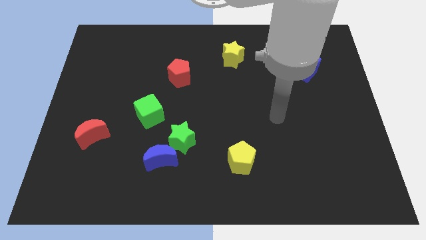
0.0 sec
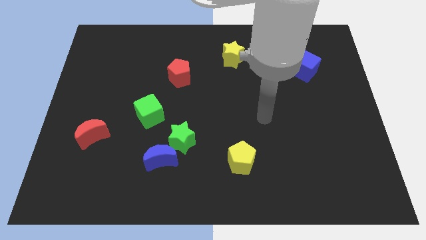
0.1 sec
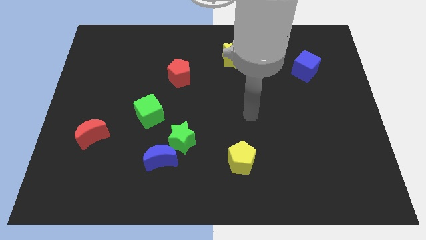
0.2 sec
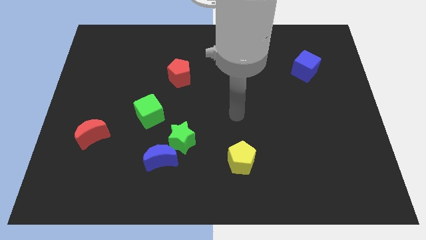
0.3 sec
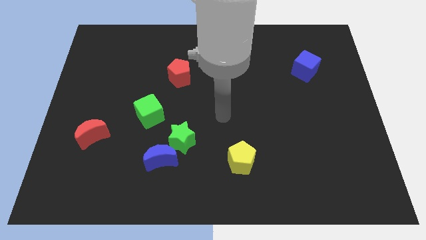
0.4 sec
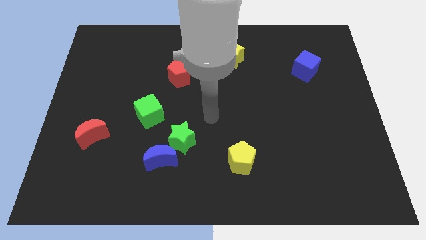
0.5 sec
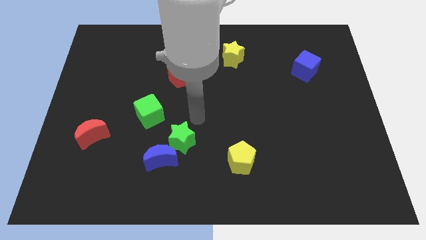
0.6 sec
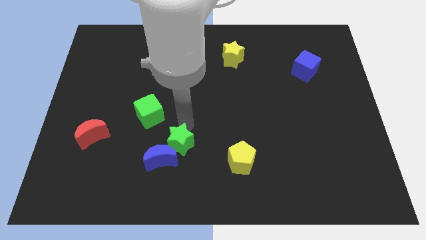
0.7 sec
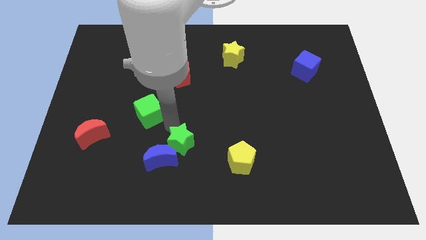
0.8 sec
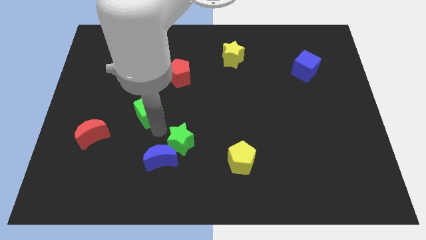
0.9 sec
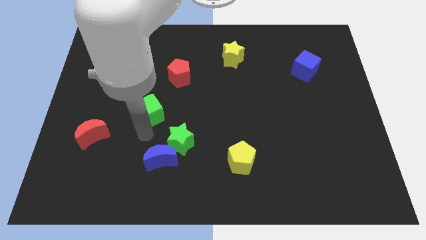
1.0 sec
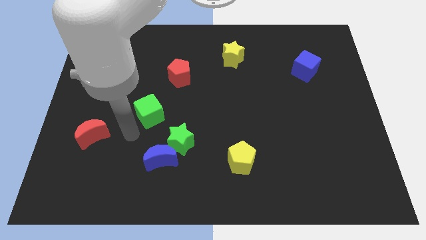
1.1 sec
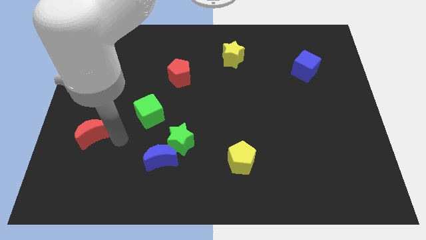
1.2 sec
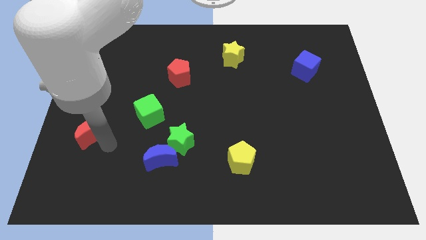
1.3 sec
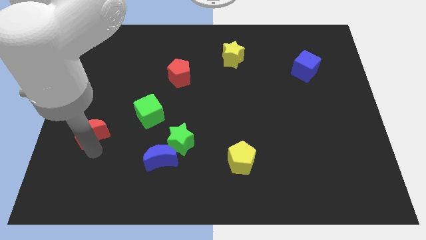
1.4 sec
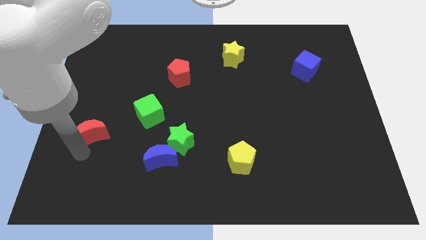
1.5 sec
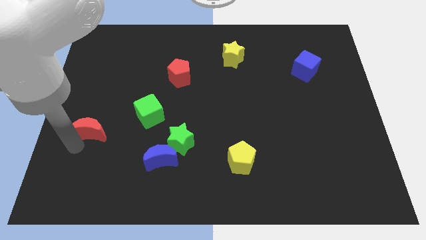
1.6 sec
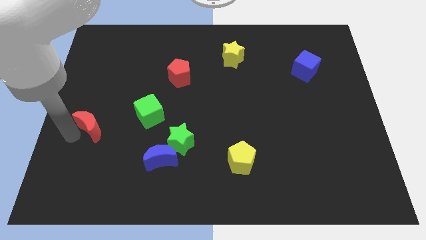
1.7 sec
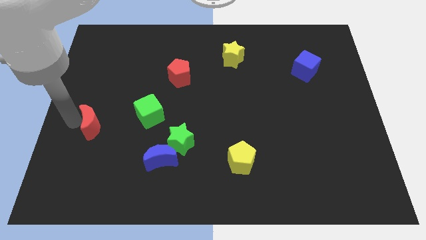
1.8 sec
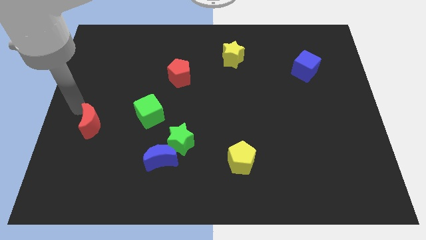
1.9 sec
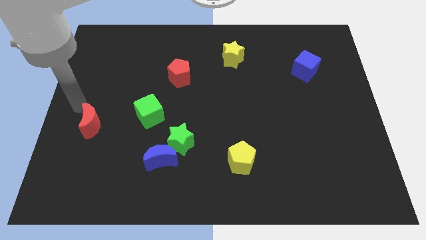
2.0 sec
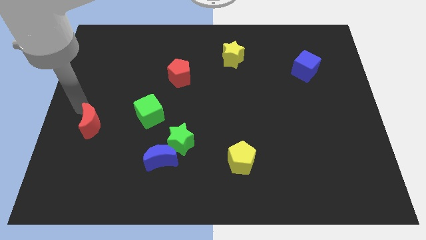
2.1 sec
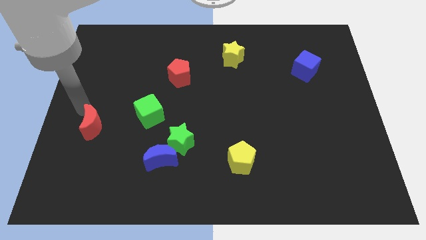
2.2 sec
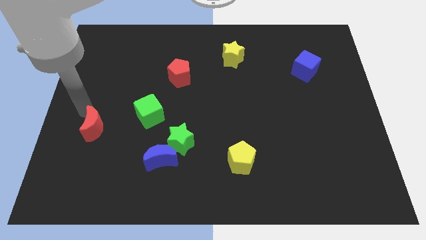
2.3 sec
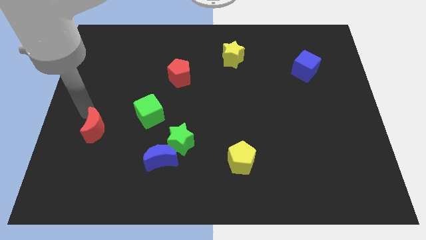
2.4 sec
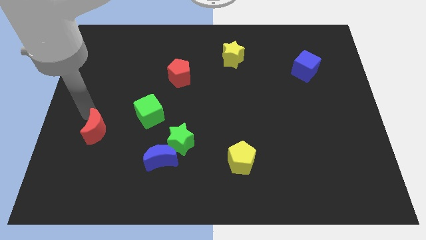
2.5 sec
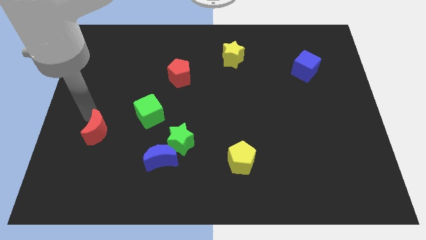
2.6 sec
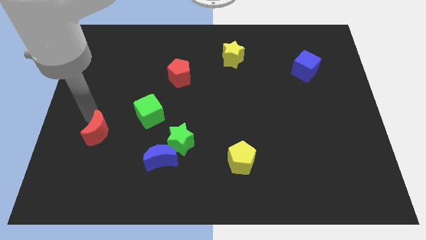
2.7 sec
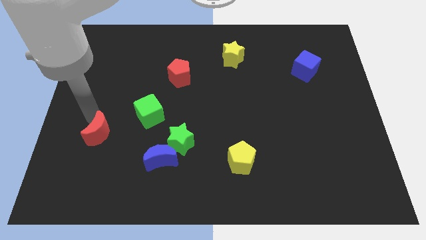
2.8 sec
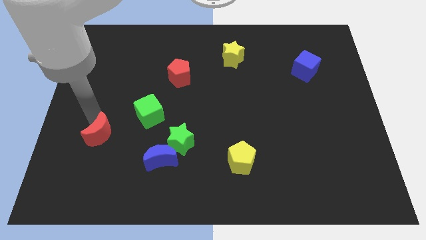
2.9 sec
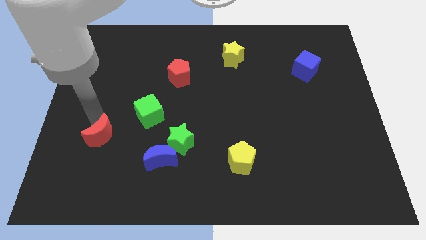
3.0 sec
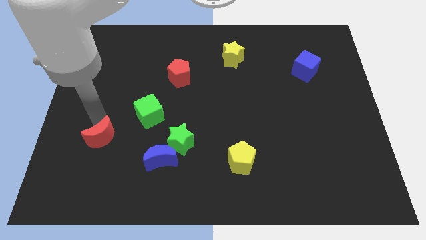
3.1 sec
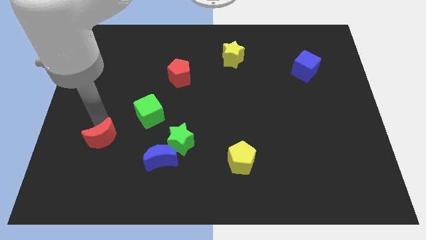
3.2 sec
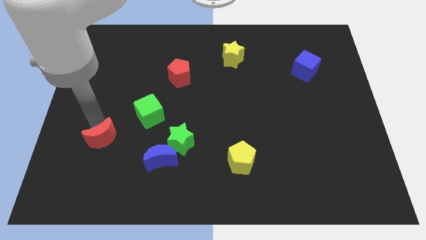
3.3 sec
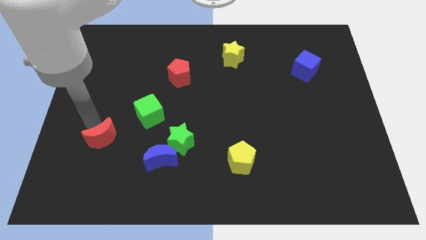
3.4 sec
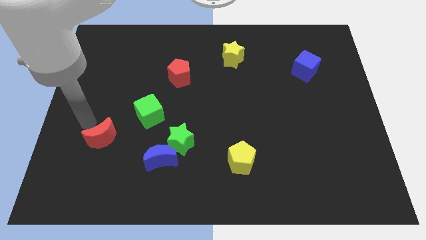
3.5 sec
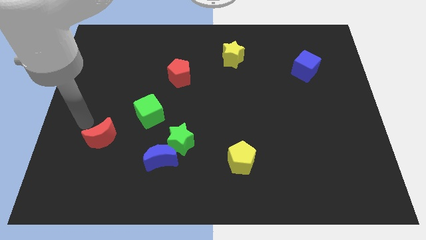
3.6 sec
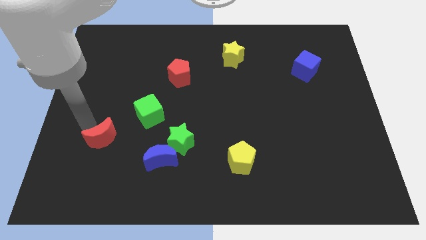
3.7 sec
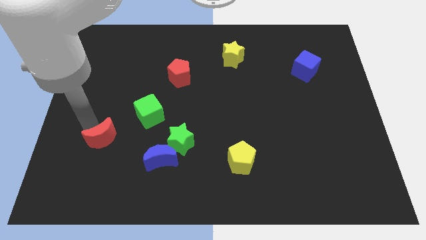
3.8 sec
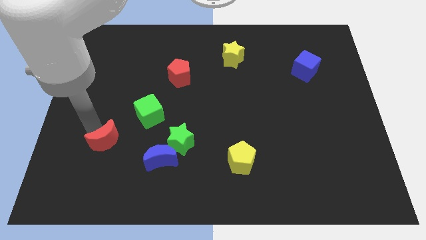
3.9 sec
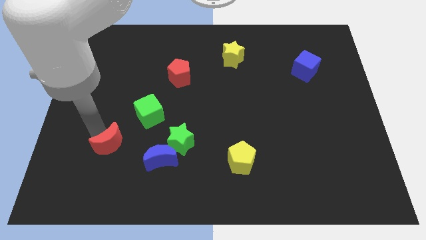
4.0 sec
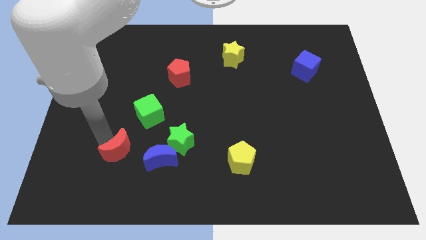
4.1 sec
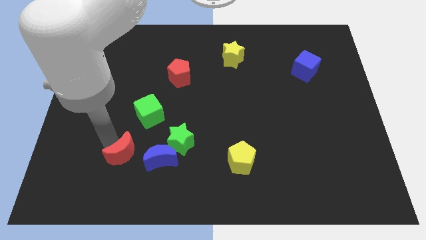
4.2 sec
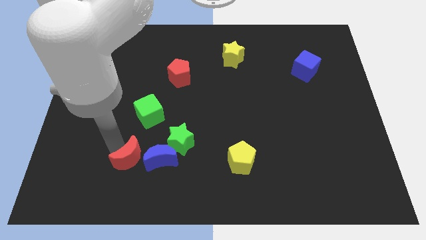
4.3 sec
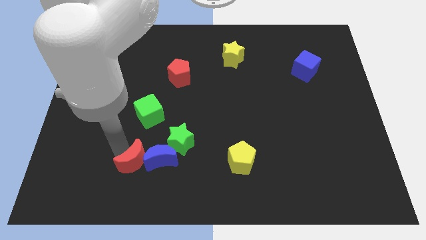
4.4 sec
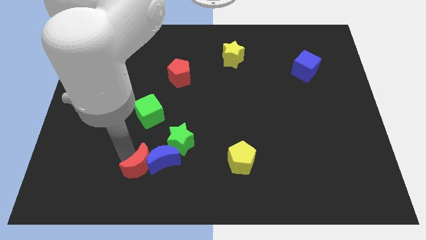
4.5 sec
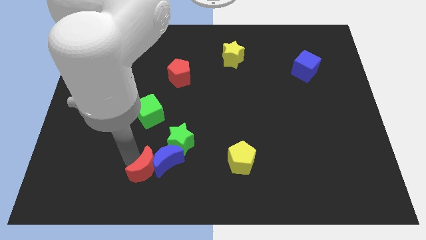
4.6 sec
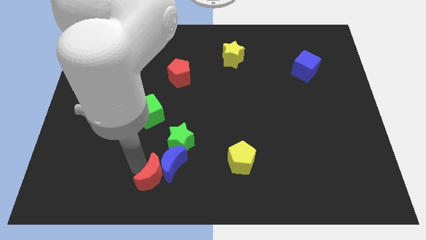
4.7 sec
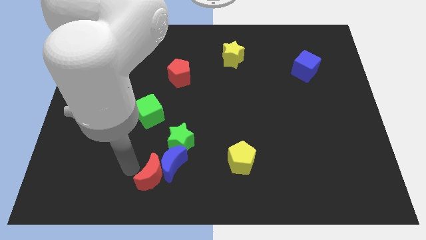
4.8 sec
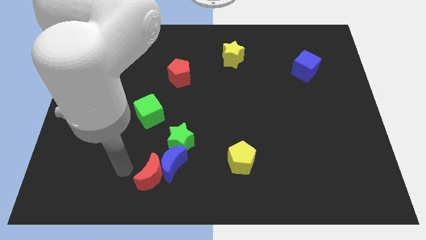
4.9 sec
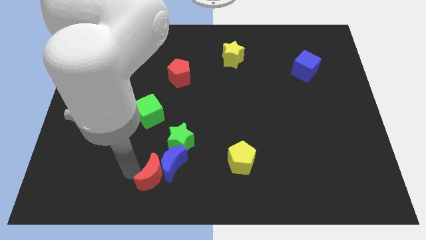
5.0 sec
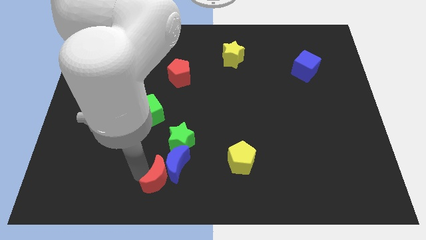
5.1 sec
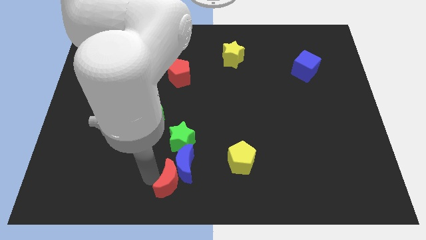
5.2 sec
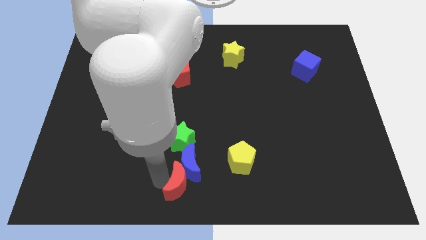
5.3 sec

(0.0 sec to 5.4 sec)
push the red moon diagonally down and to the right of the blue moon

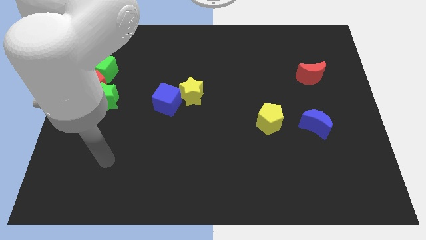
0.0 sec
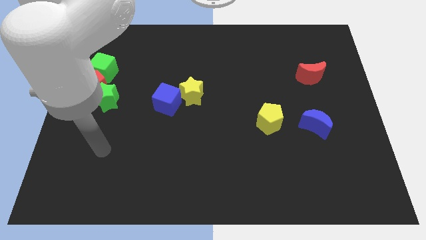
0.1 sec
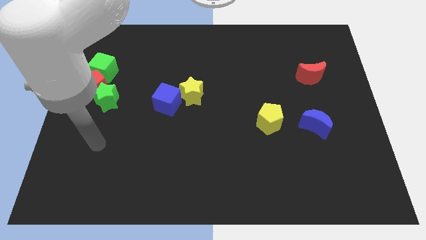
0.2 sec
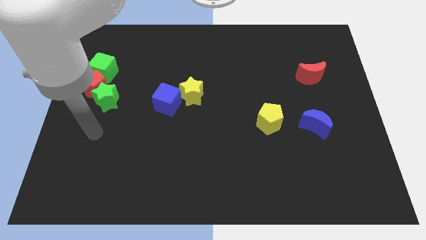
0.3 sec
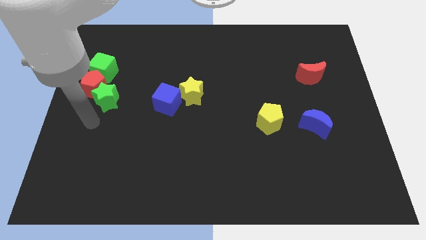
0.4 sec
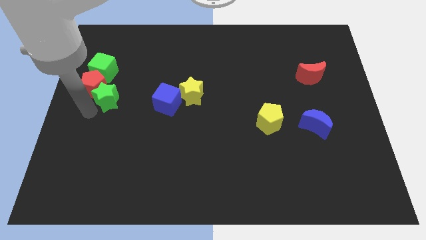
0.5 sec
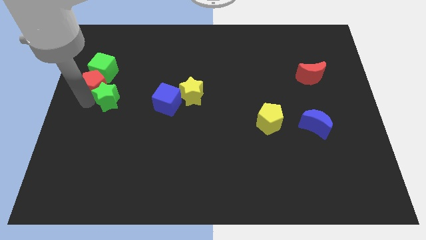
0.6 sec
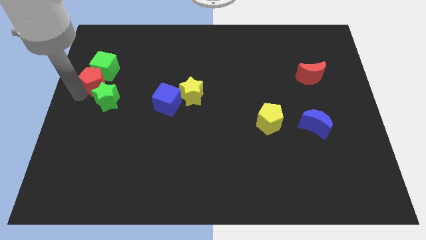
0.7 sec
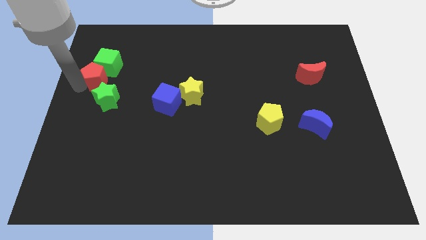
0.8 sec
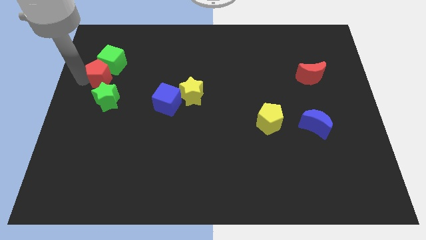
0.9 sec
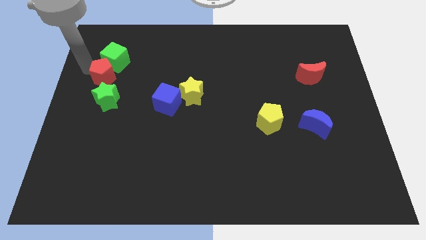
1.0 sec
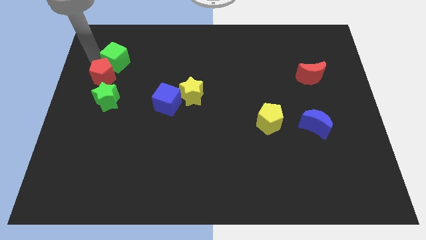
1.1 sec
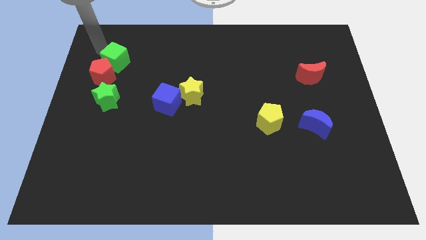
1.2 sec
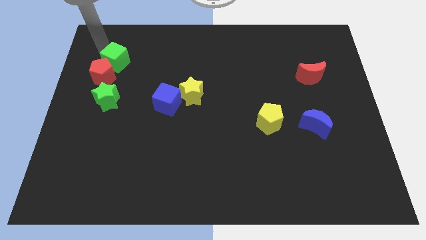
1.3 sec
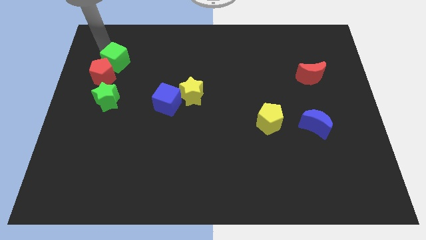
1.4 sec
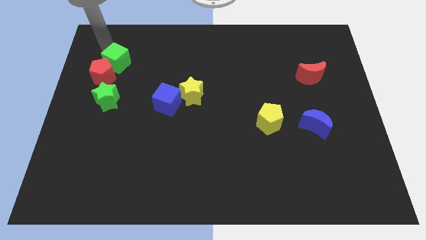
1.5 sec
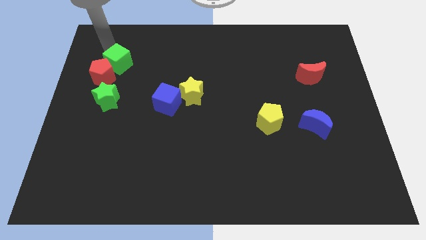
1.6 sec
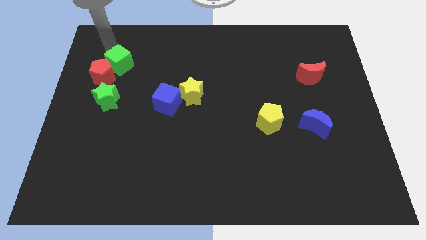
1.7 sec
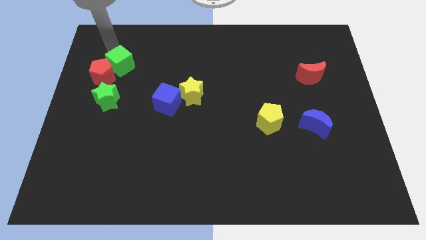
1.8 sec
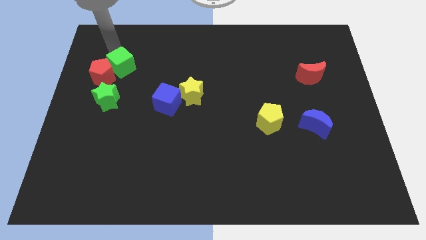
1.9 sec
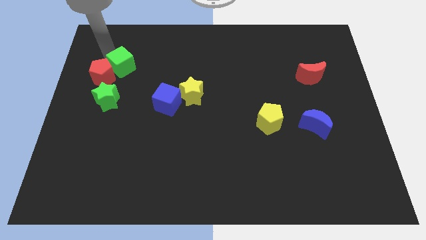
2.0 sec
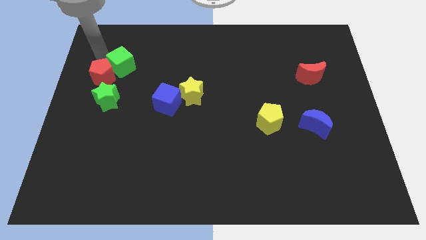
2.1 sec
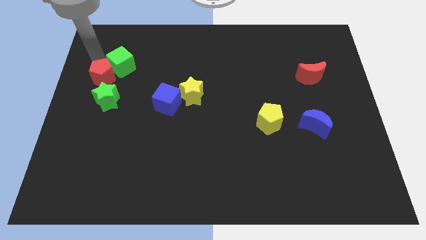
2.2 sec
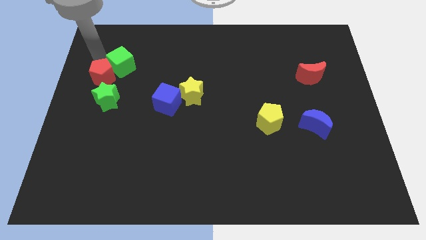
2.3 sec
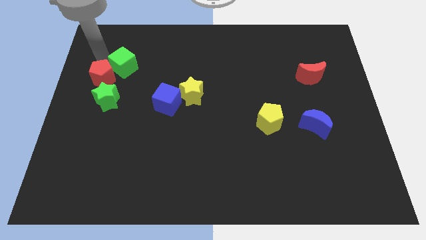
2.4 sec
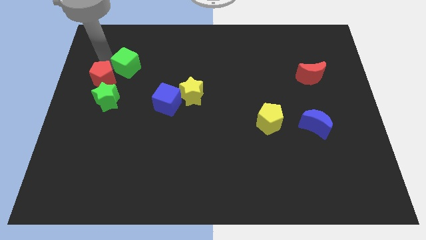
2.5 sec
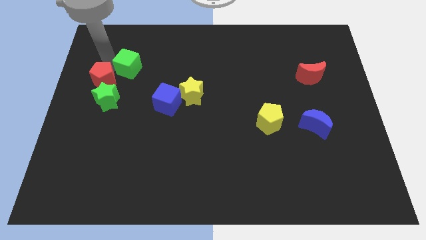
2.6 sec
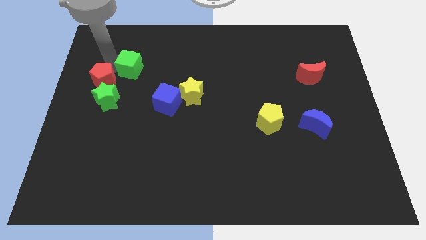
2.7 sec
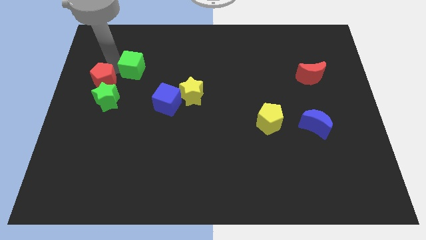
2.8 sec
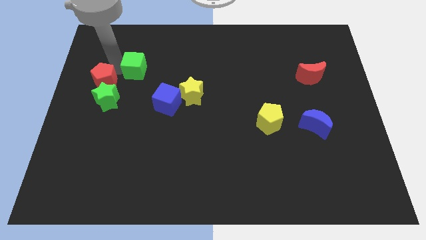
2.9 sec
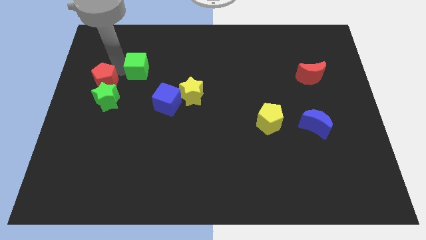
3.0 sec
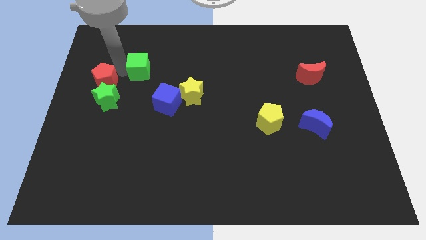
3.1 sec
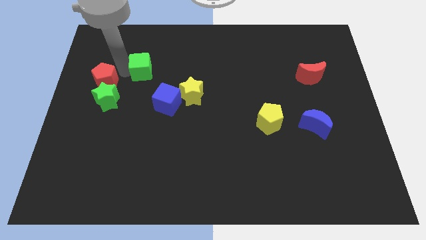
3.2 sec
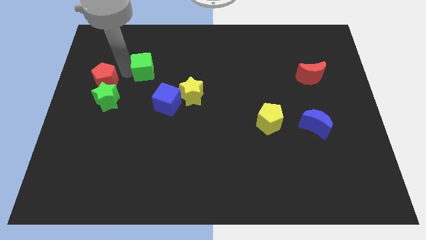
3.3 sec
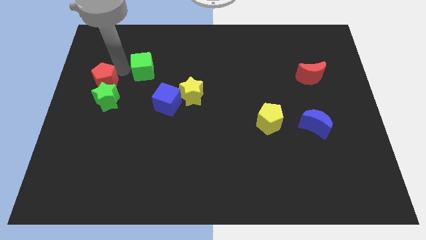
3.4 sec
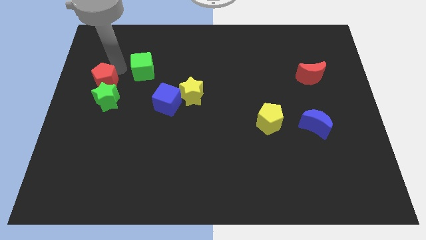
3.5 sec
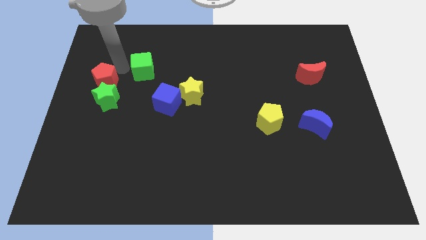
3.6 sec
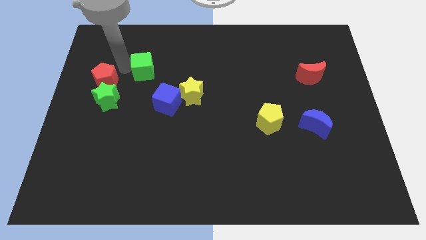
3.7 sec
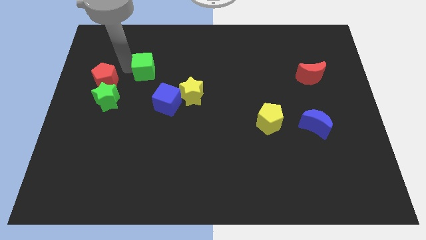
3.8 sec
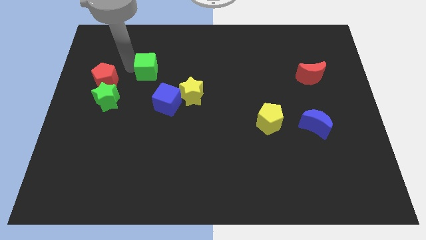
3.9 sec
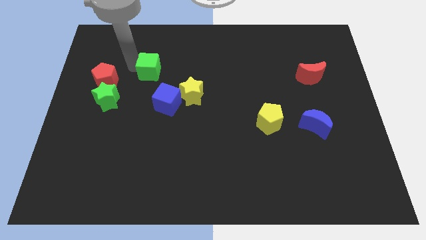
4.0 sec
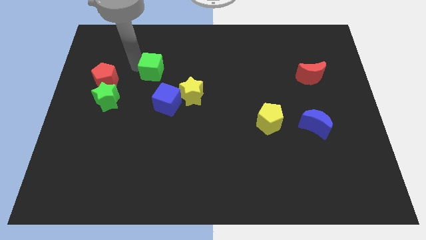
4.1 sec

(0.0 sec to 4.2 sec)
push the green cube to the top of the blue cube
